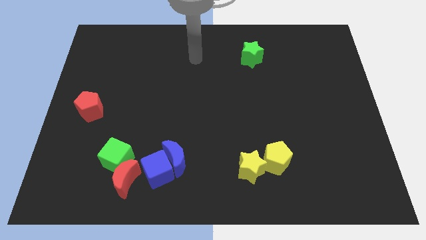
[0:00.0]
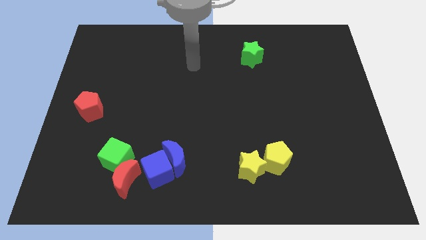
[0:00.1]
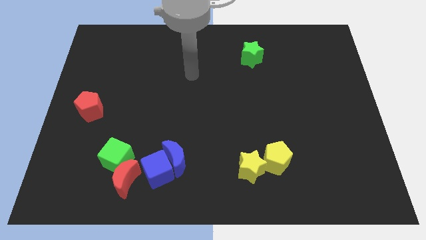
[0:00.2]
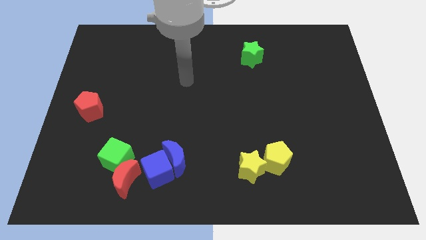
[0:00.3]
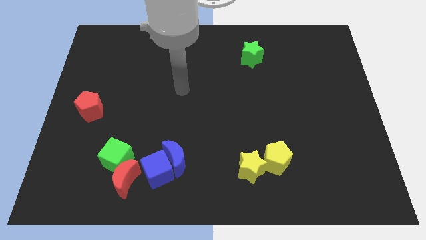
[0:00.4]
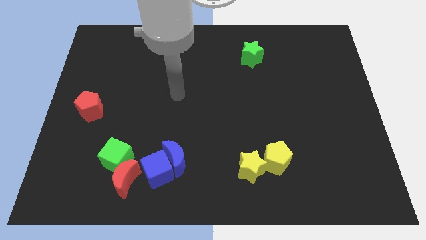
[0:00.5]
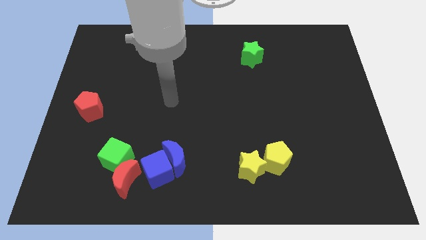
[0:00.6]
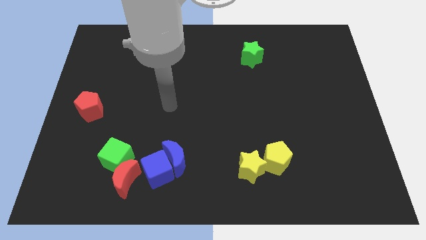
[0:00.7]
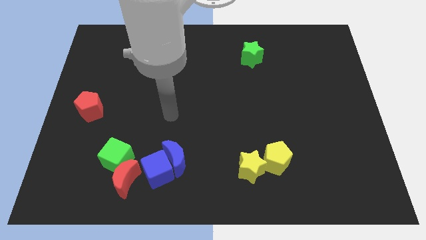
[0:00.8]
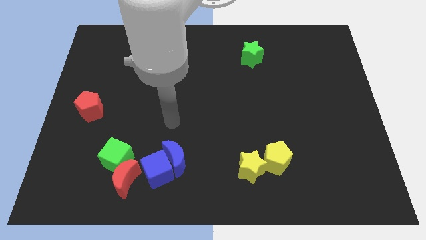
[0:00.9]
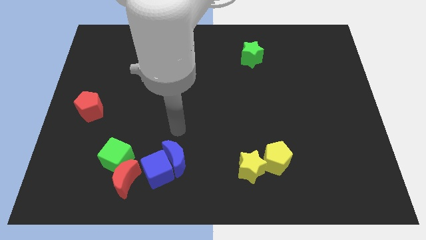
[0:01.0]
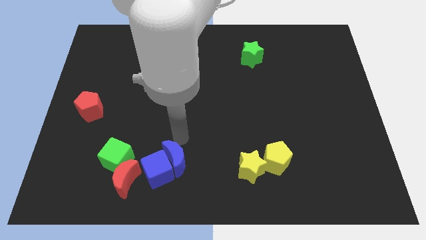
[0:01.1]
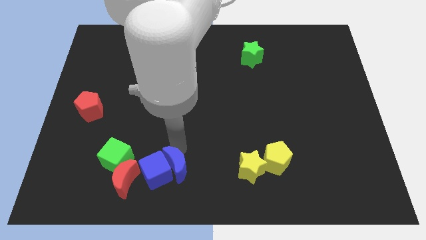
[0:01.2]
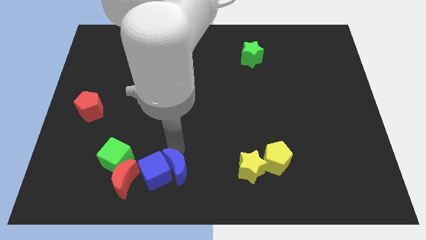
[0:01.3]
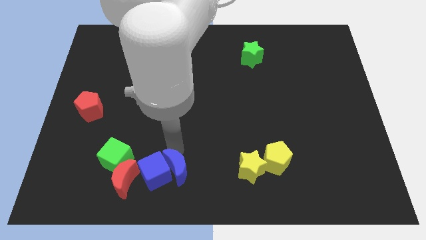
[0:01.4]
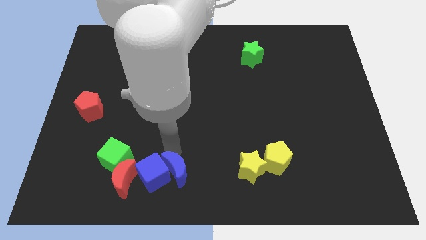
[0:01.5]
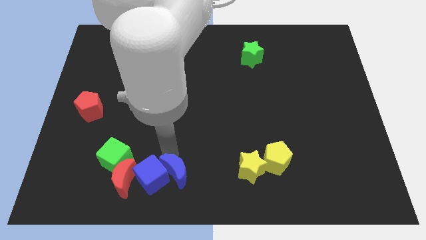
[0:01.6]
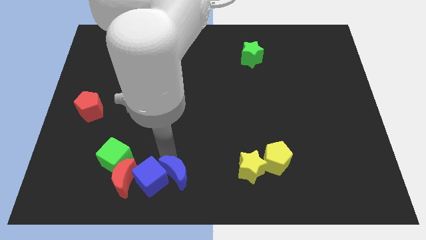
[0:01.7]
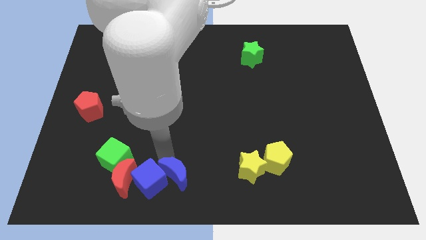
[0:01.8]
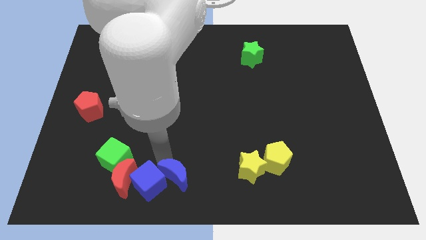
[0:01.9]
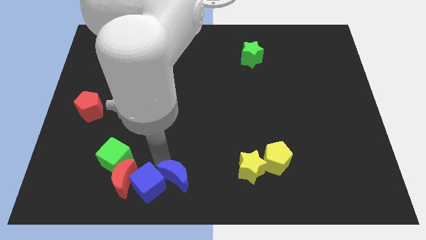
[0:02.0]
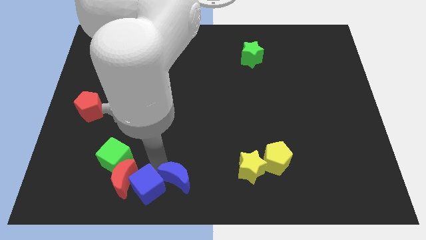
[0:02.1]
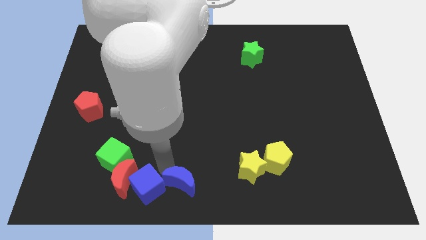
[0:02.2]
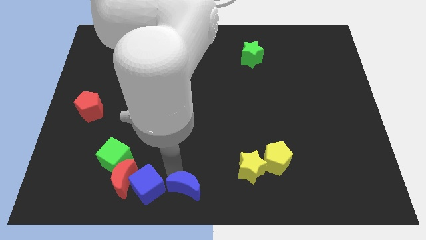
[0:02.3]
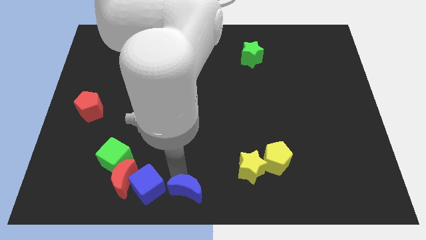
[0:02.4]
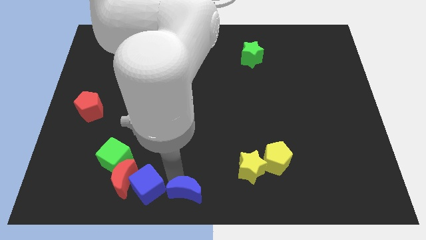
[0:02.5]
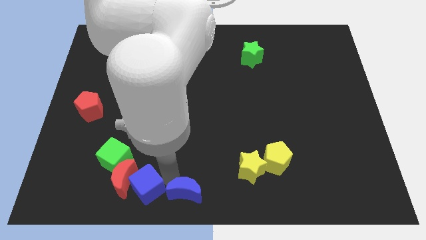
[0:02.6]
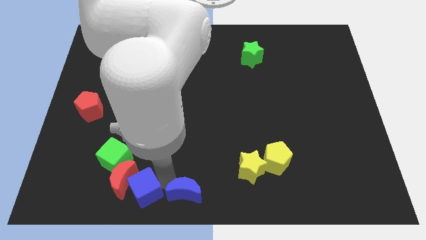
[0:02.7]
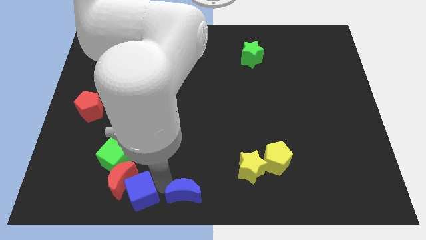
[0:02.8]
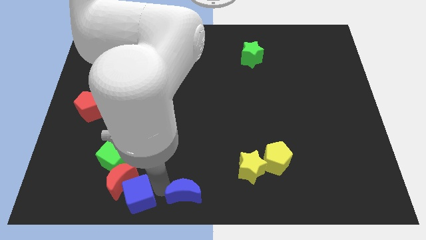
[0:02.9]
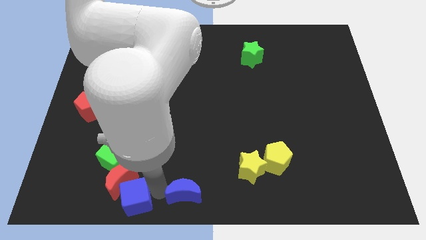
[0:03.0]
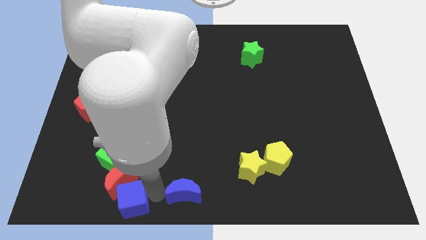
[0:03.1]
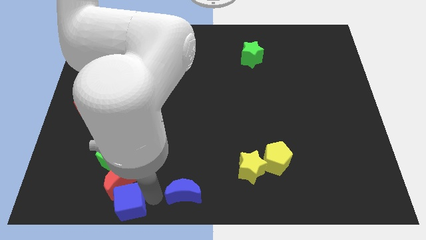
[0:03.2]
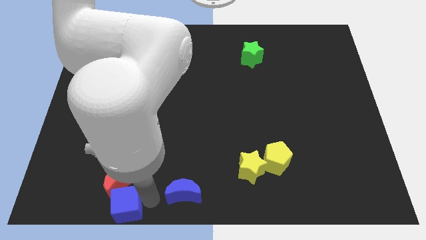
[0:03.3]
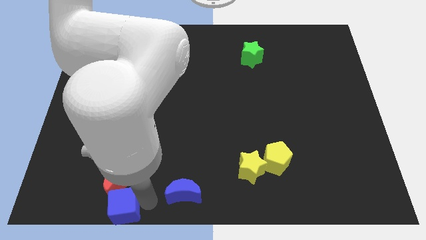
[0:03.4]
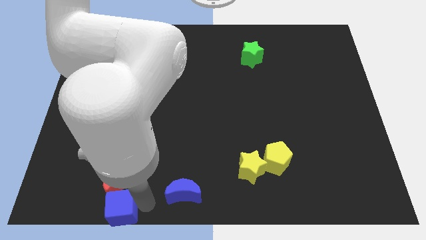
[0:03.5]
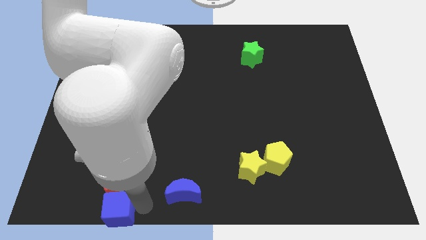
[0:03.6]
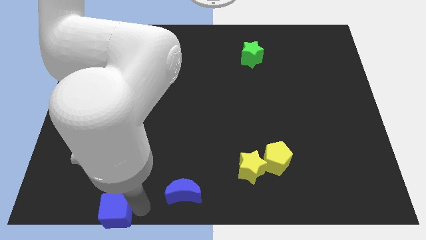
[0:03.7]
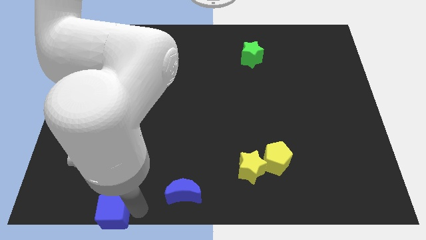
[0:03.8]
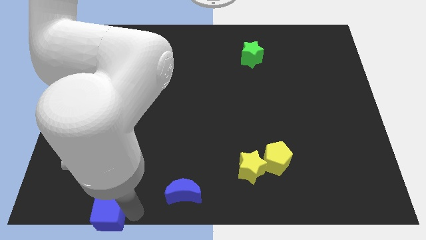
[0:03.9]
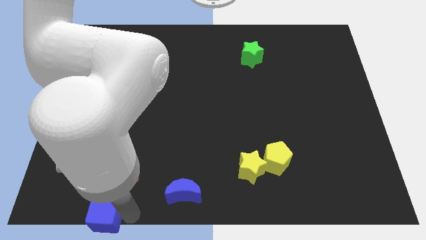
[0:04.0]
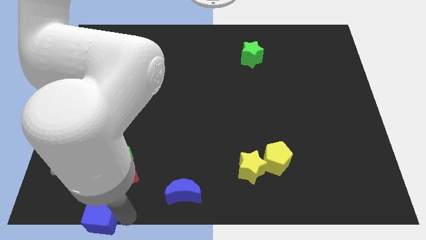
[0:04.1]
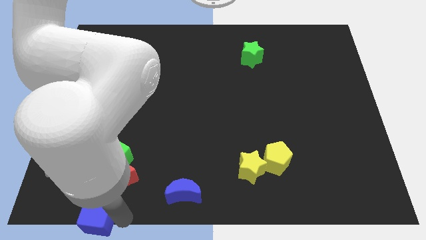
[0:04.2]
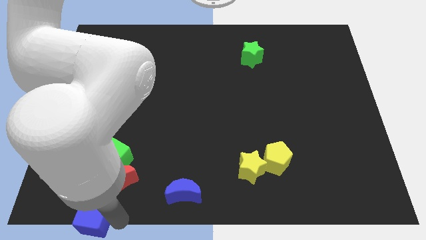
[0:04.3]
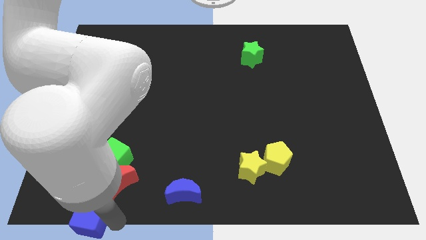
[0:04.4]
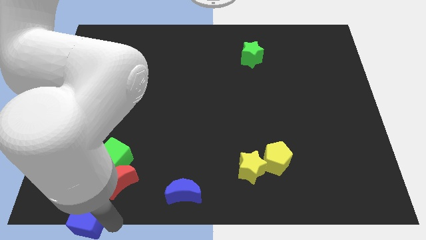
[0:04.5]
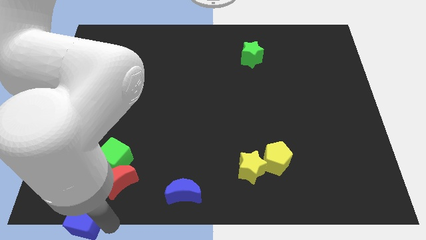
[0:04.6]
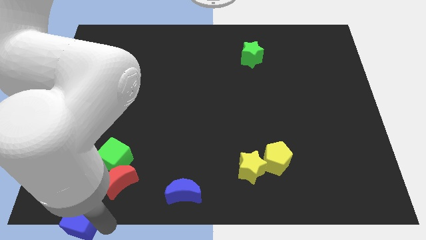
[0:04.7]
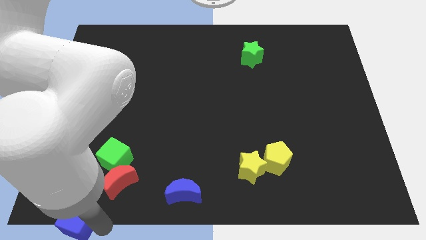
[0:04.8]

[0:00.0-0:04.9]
slide the blue cube to the bottom left
